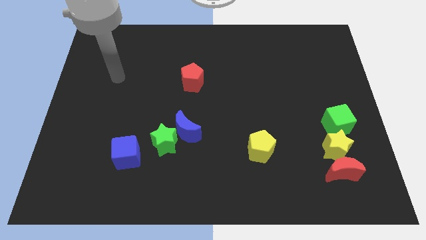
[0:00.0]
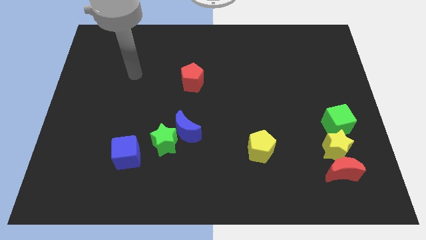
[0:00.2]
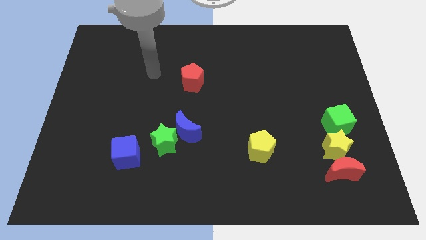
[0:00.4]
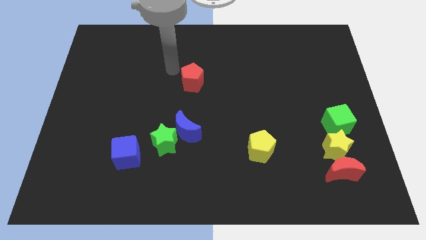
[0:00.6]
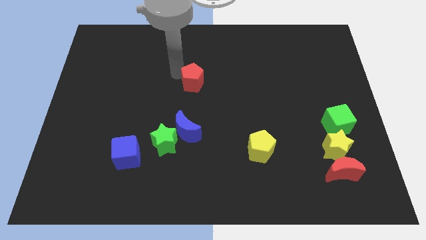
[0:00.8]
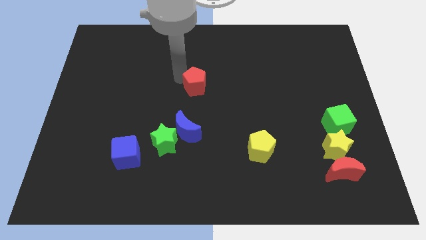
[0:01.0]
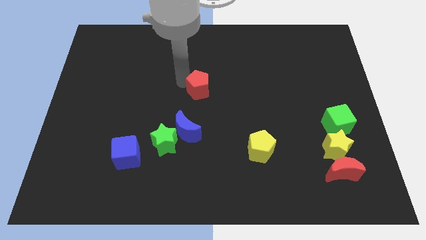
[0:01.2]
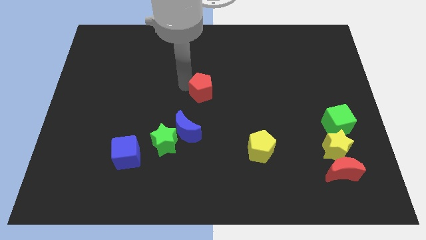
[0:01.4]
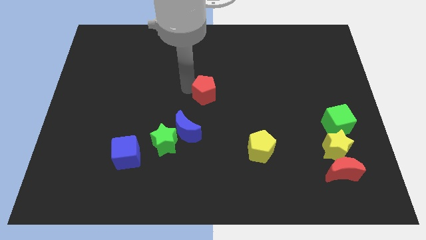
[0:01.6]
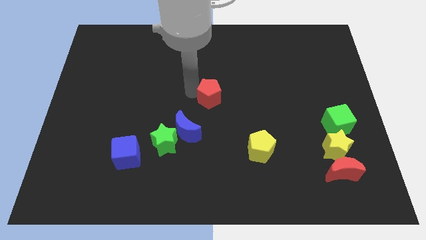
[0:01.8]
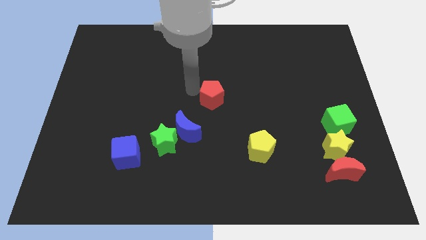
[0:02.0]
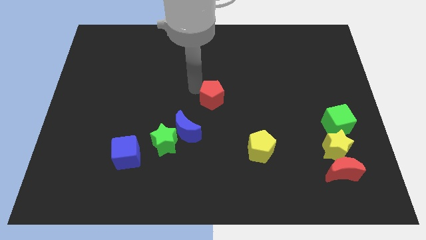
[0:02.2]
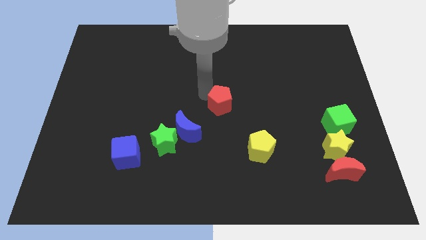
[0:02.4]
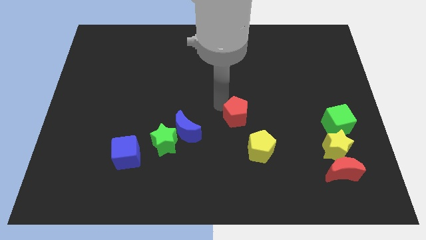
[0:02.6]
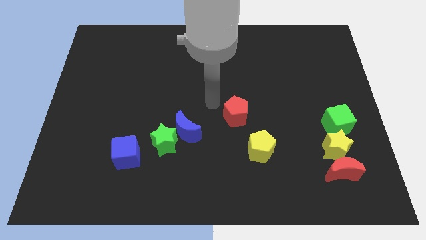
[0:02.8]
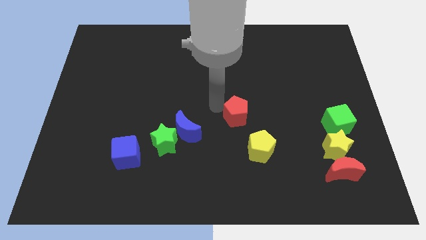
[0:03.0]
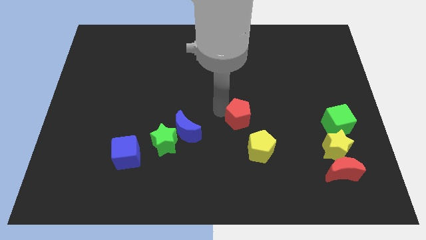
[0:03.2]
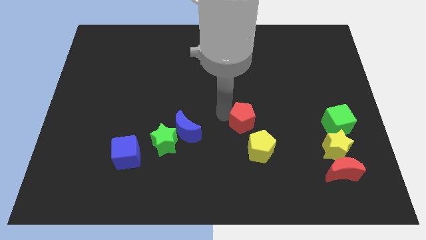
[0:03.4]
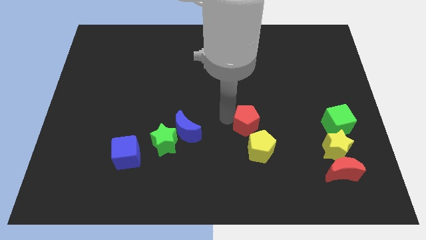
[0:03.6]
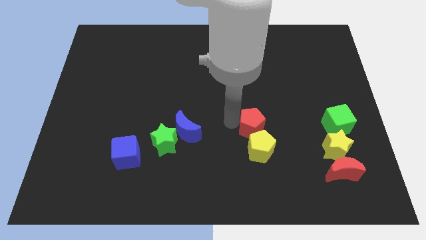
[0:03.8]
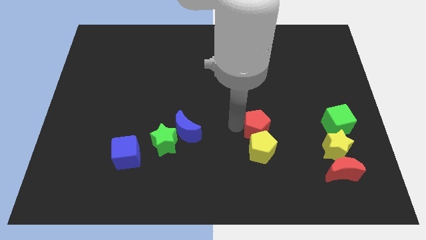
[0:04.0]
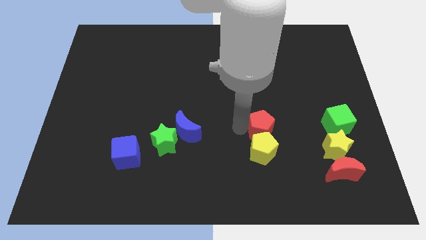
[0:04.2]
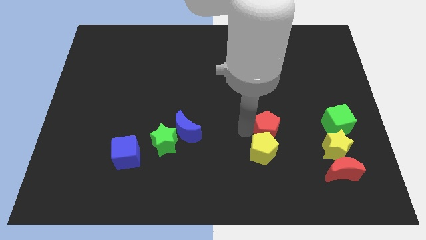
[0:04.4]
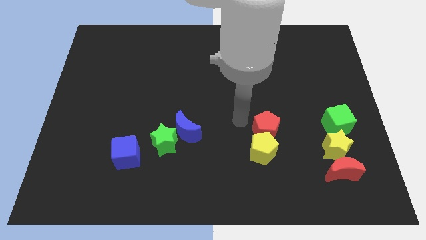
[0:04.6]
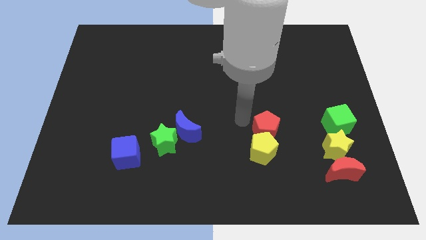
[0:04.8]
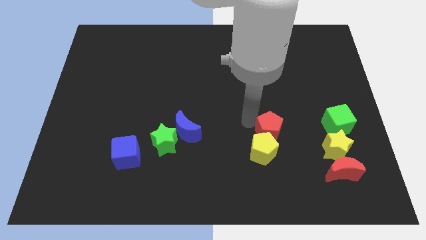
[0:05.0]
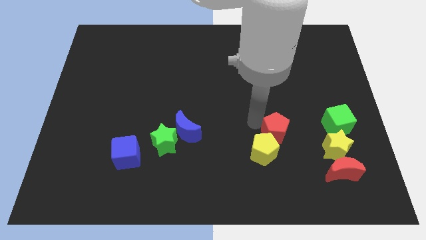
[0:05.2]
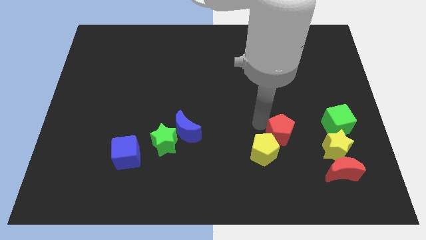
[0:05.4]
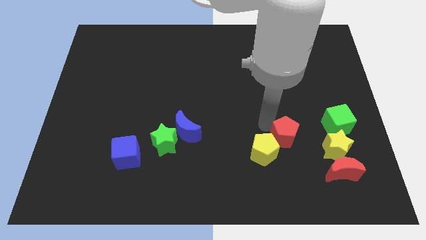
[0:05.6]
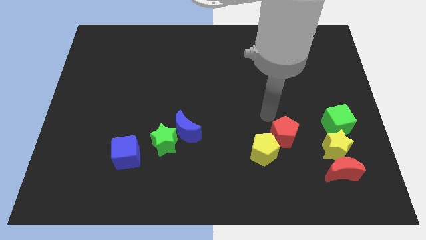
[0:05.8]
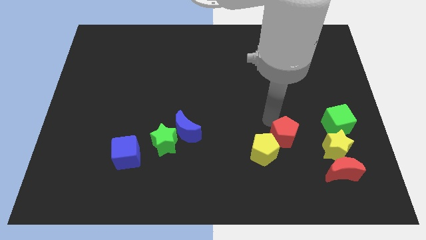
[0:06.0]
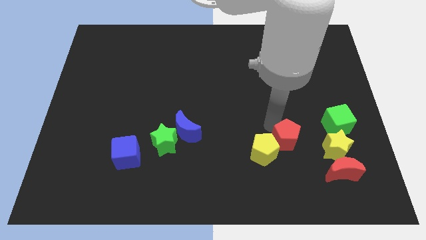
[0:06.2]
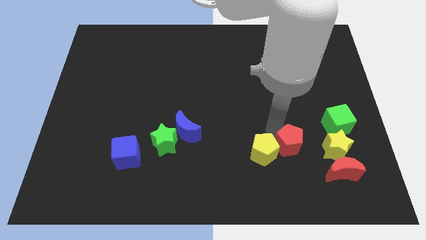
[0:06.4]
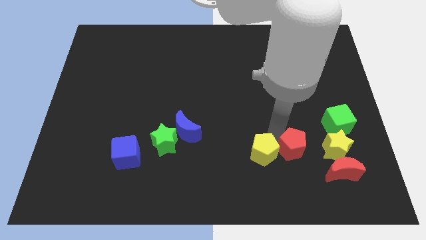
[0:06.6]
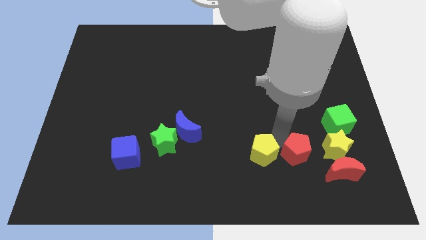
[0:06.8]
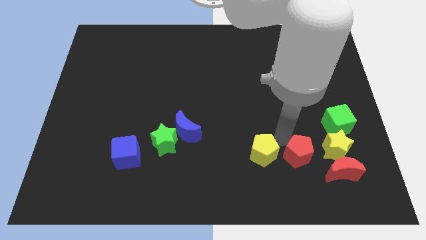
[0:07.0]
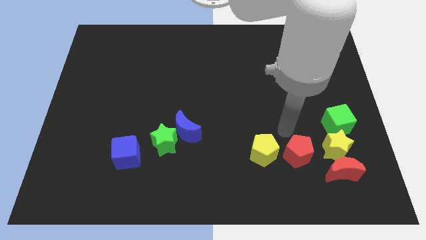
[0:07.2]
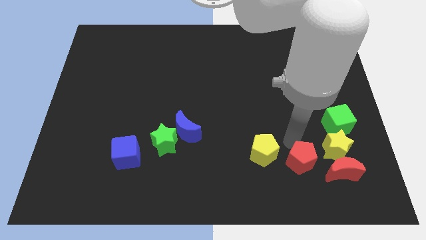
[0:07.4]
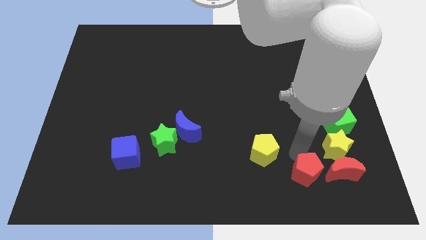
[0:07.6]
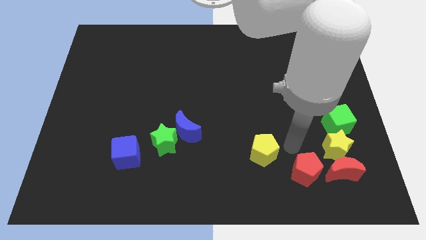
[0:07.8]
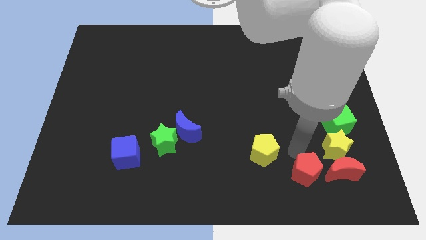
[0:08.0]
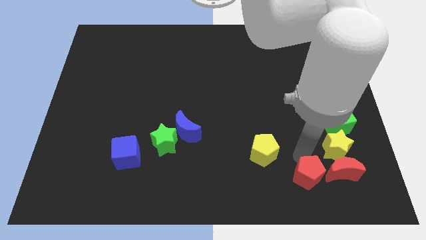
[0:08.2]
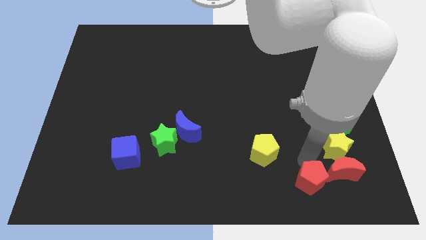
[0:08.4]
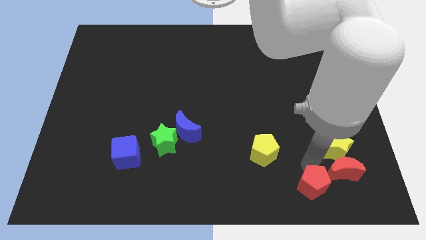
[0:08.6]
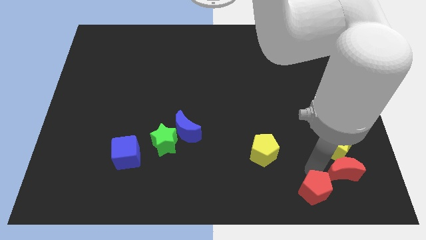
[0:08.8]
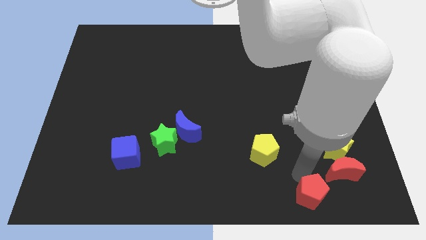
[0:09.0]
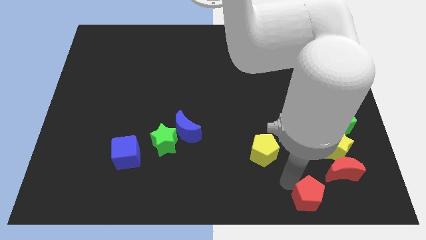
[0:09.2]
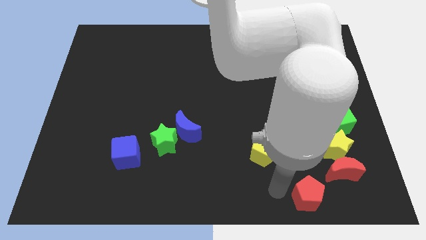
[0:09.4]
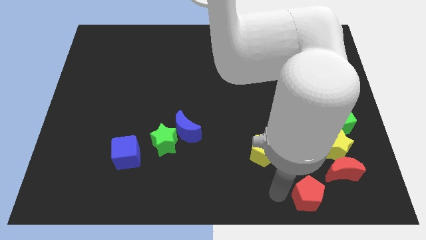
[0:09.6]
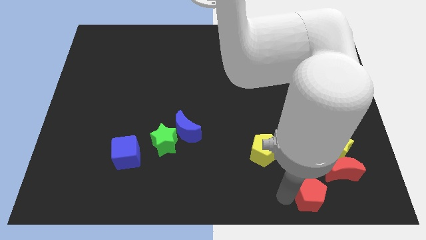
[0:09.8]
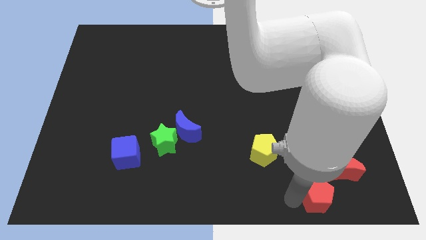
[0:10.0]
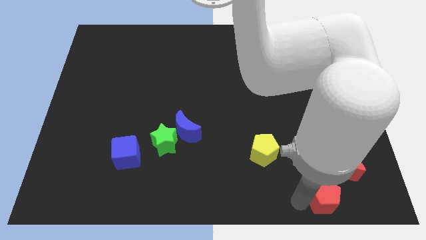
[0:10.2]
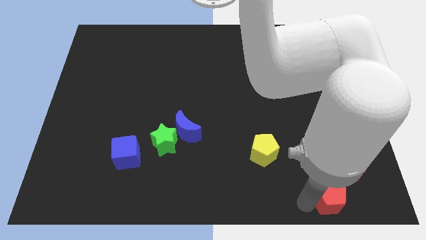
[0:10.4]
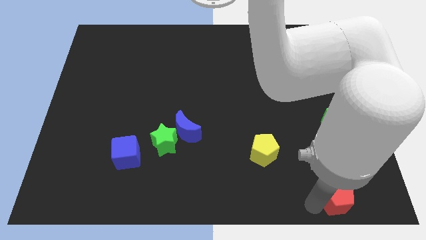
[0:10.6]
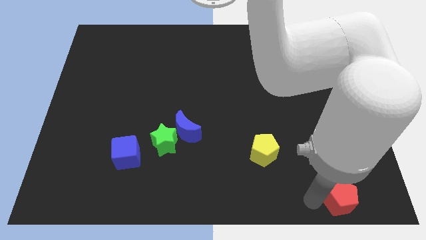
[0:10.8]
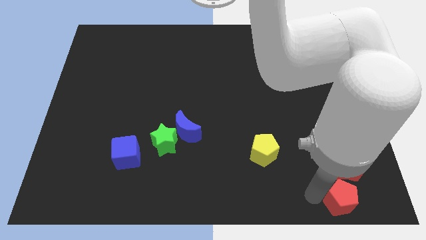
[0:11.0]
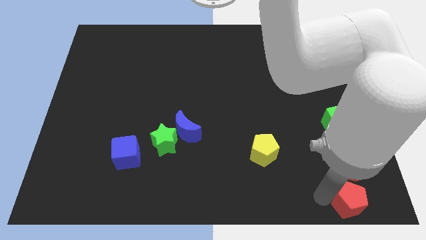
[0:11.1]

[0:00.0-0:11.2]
slide the red pentagon to the lower right corner
